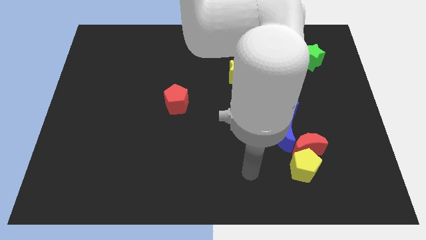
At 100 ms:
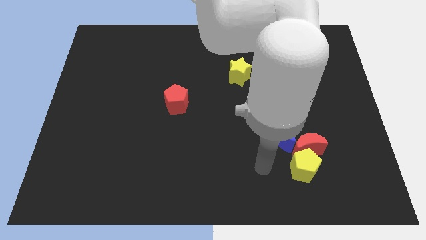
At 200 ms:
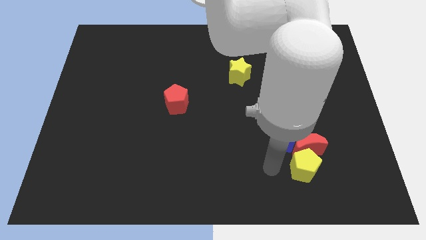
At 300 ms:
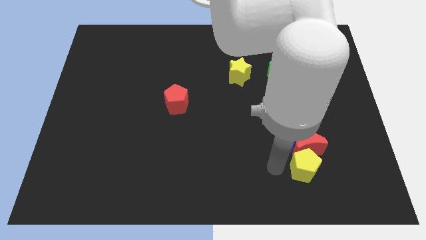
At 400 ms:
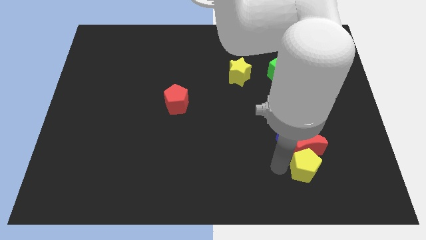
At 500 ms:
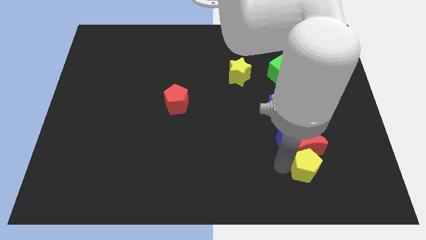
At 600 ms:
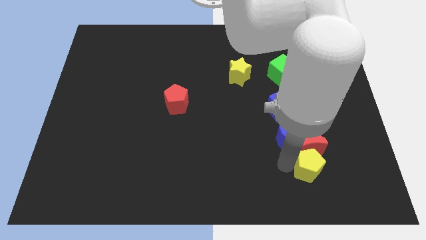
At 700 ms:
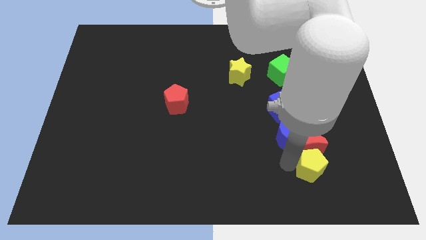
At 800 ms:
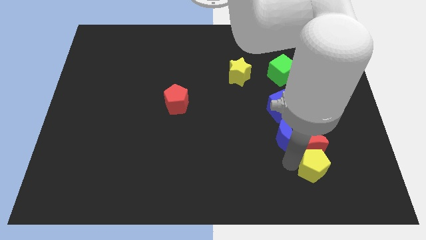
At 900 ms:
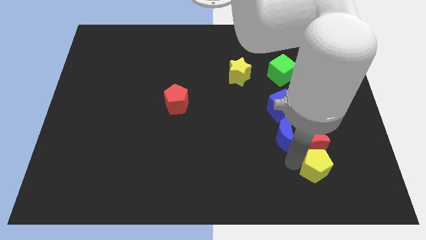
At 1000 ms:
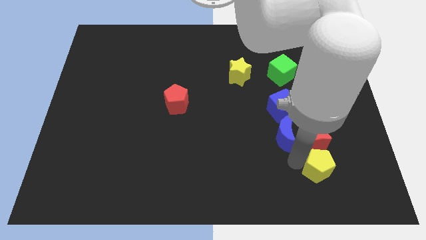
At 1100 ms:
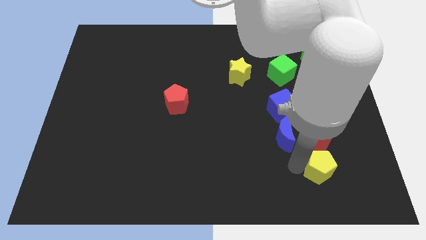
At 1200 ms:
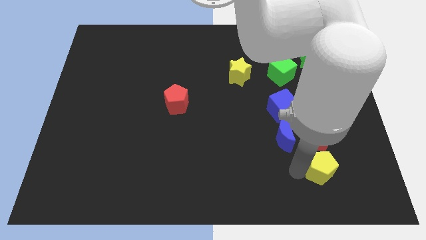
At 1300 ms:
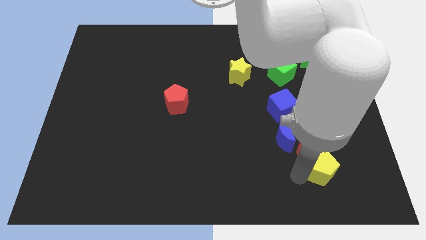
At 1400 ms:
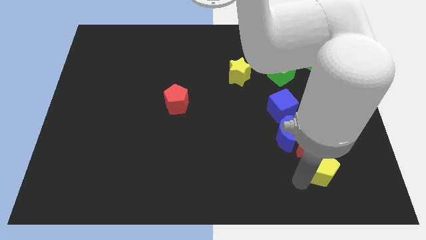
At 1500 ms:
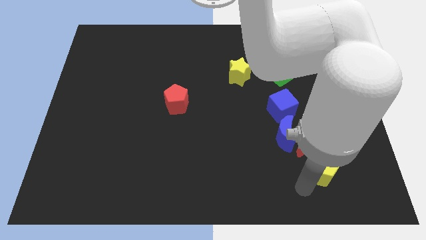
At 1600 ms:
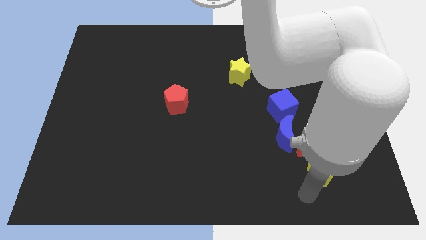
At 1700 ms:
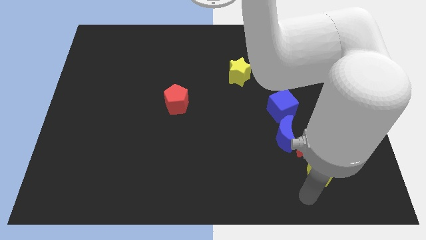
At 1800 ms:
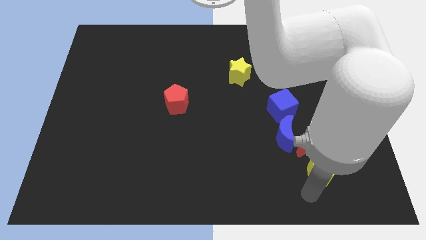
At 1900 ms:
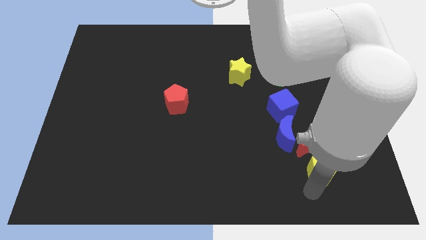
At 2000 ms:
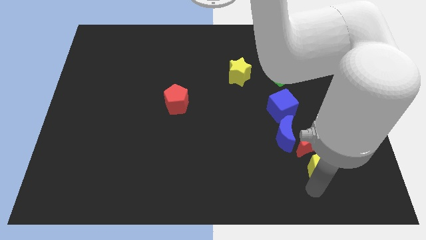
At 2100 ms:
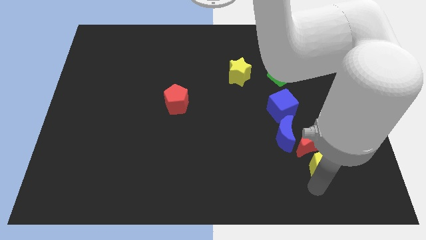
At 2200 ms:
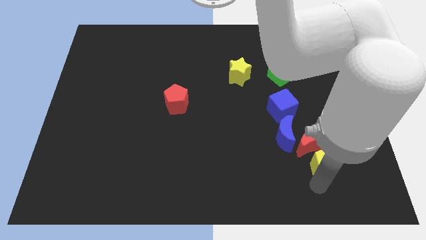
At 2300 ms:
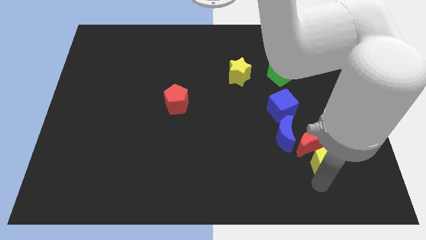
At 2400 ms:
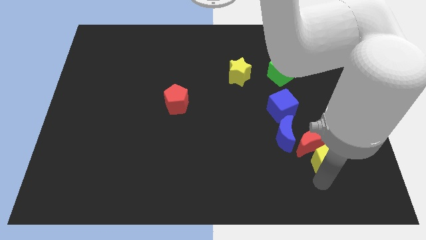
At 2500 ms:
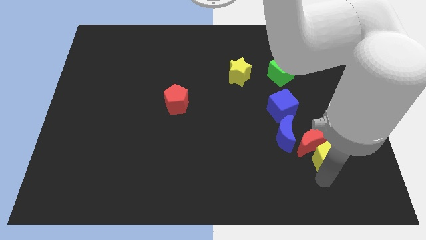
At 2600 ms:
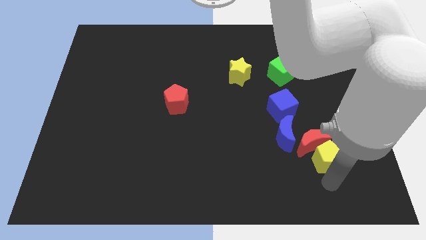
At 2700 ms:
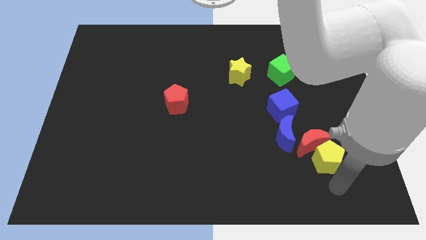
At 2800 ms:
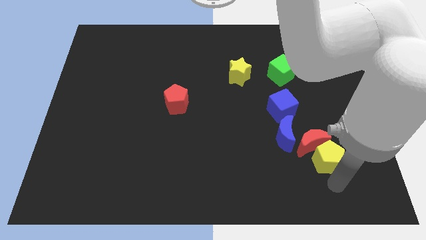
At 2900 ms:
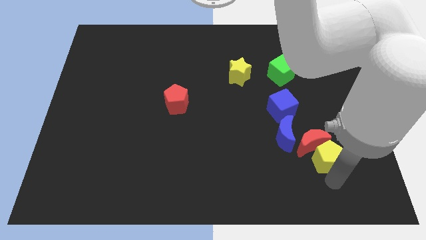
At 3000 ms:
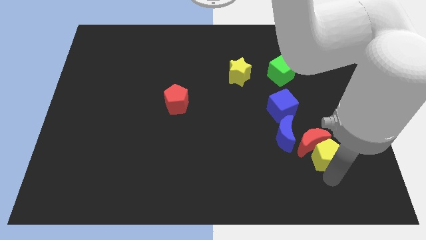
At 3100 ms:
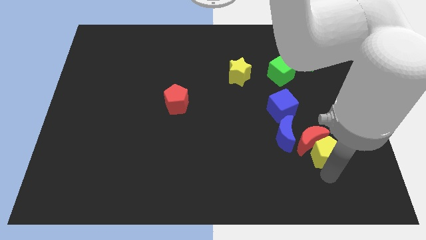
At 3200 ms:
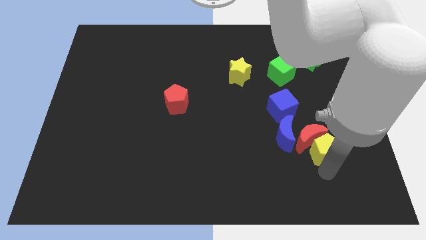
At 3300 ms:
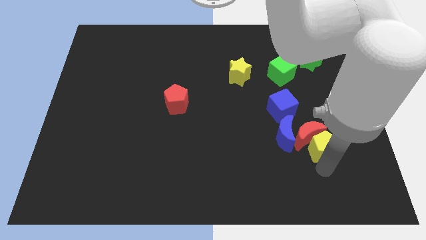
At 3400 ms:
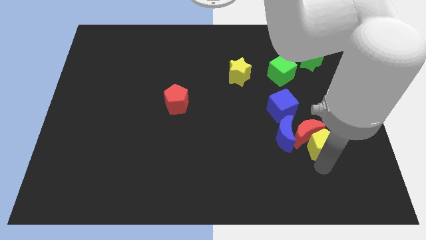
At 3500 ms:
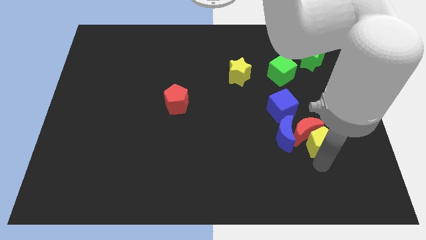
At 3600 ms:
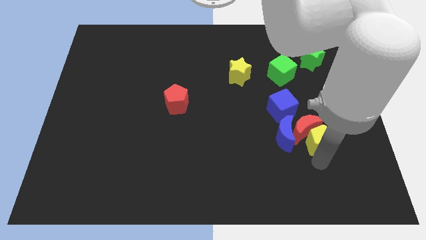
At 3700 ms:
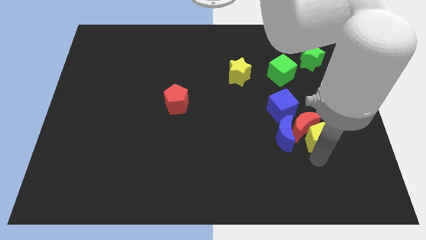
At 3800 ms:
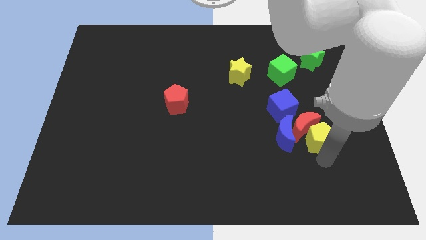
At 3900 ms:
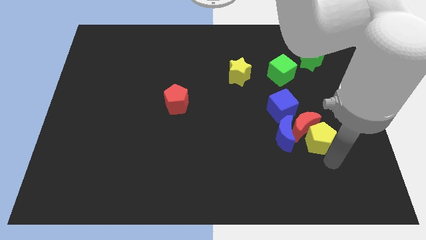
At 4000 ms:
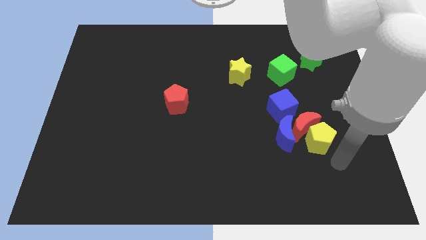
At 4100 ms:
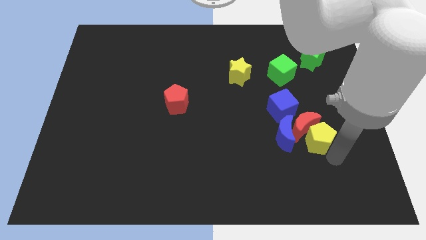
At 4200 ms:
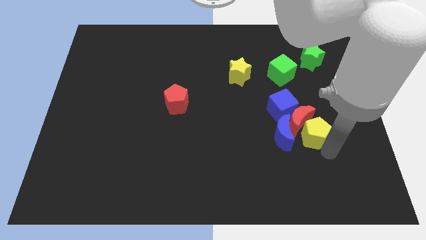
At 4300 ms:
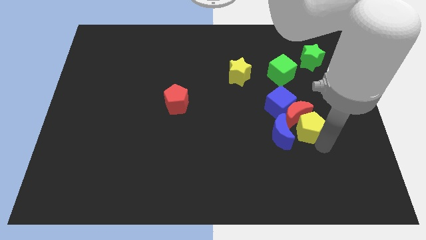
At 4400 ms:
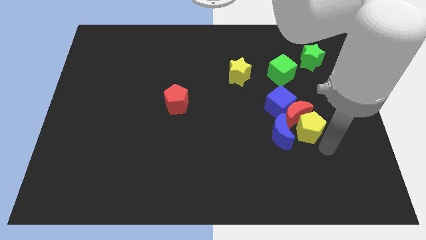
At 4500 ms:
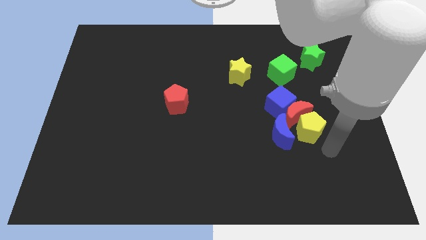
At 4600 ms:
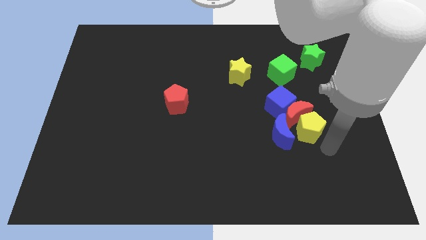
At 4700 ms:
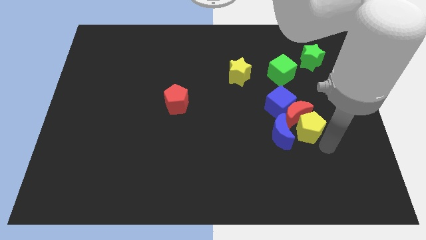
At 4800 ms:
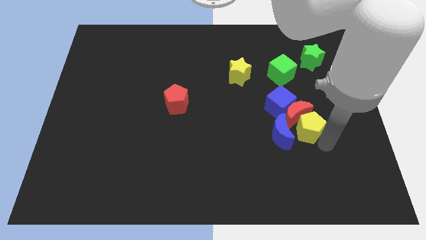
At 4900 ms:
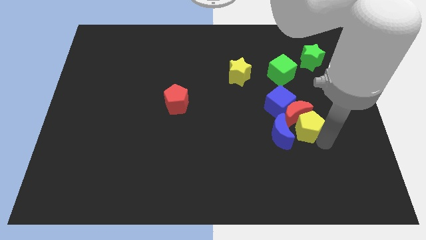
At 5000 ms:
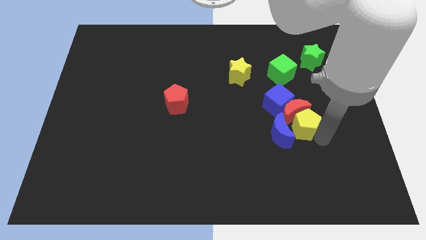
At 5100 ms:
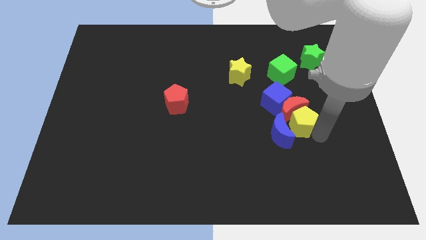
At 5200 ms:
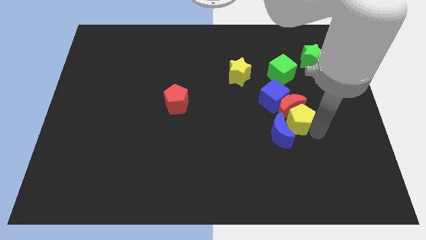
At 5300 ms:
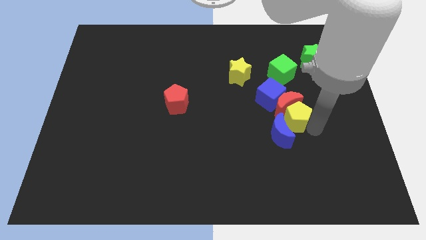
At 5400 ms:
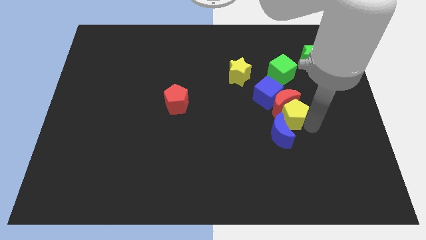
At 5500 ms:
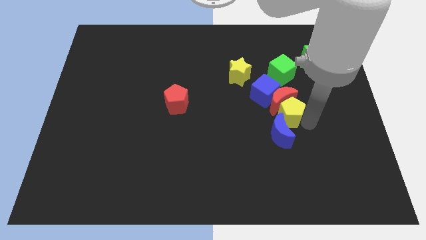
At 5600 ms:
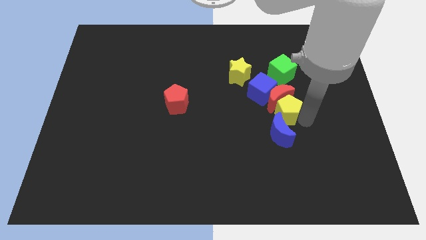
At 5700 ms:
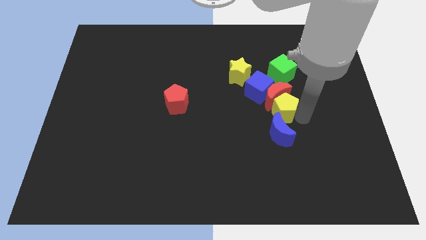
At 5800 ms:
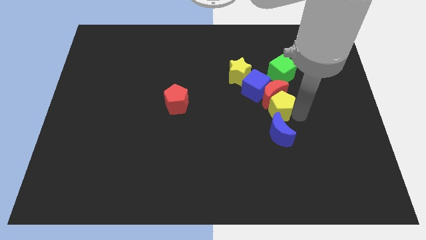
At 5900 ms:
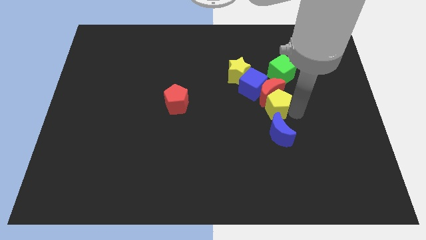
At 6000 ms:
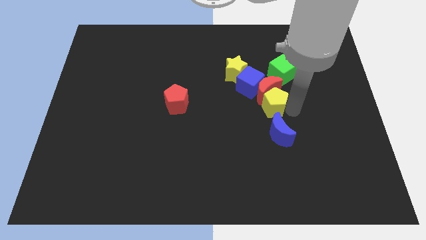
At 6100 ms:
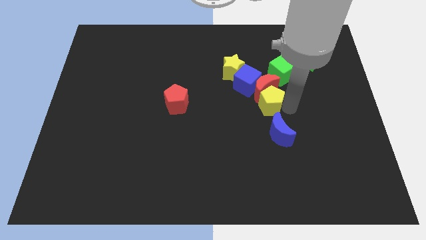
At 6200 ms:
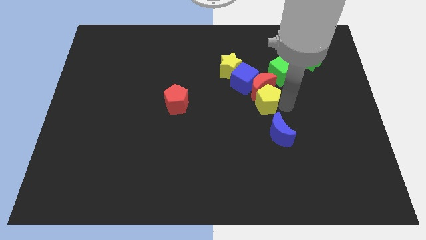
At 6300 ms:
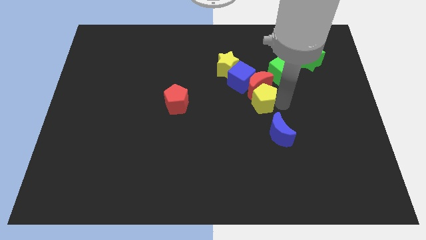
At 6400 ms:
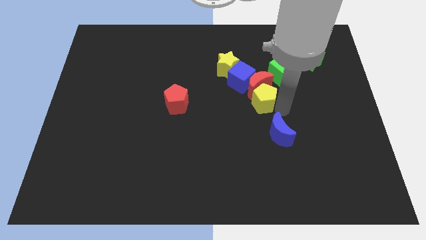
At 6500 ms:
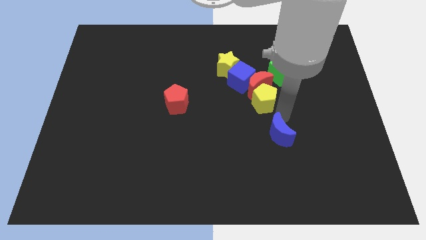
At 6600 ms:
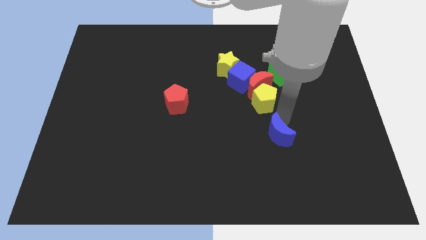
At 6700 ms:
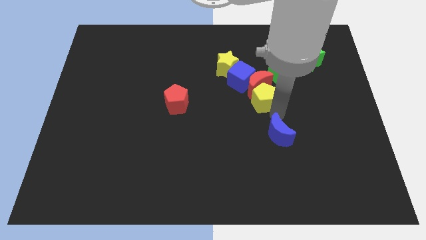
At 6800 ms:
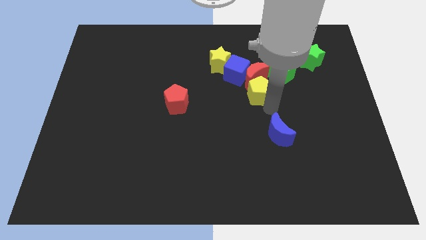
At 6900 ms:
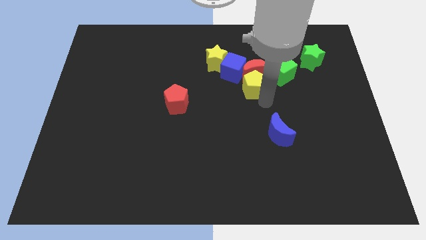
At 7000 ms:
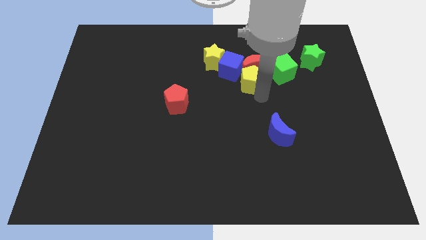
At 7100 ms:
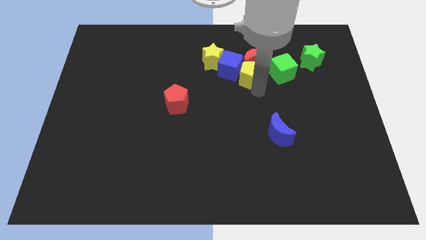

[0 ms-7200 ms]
push the yellow pentagon towards the blue cube

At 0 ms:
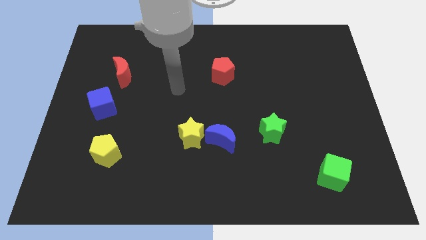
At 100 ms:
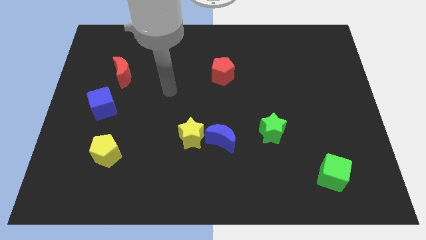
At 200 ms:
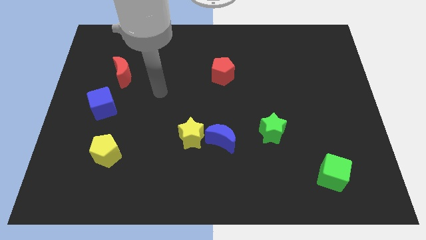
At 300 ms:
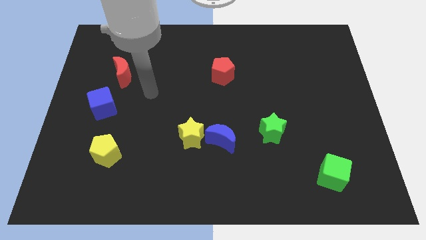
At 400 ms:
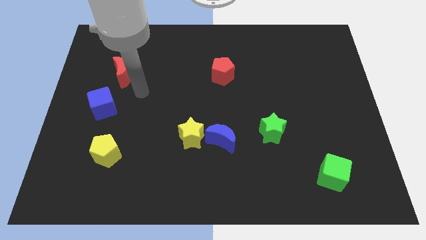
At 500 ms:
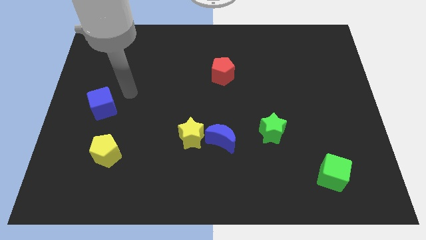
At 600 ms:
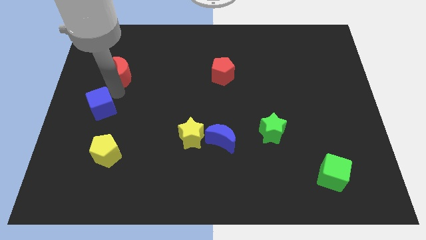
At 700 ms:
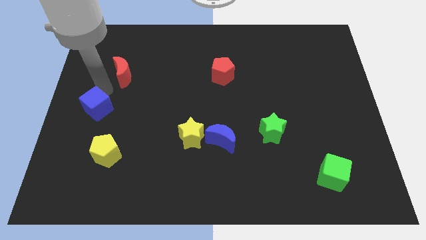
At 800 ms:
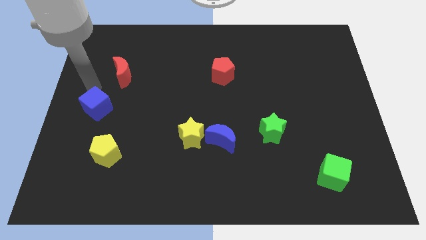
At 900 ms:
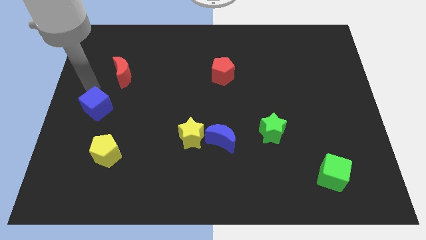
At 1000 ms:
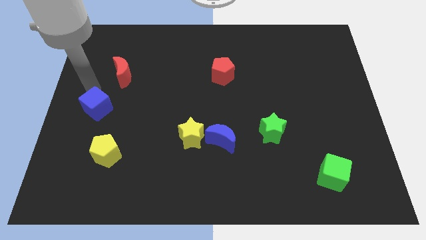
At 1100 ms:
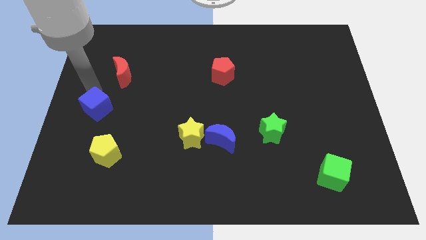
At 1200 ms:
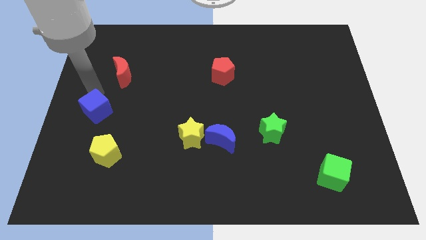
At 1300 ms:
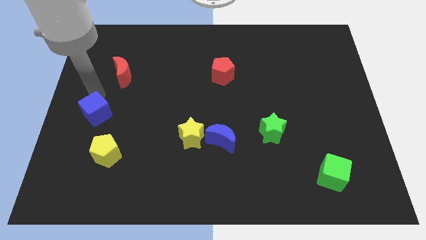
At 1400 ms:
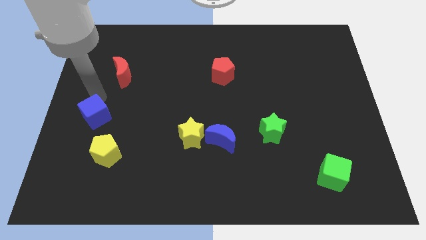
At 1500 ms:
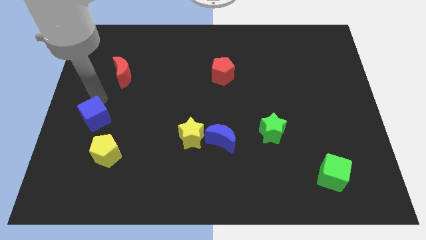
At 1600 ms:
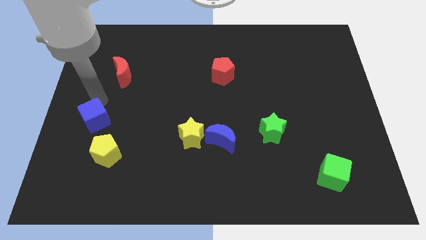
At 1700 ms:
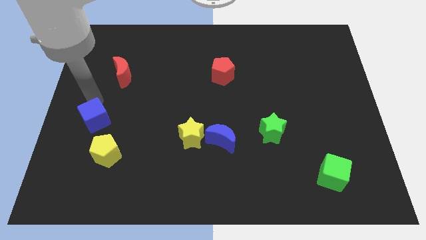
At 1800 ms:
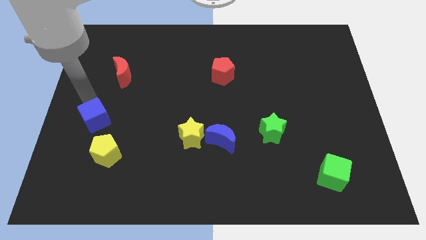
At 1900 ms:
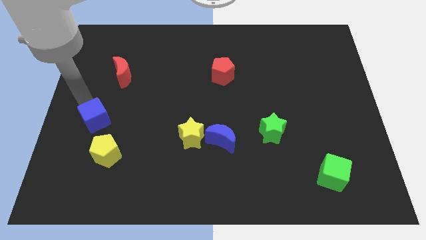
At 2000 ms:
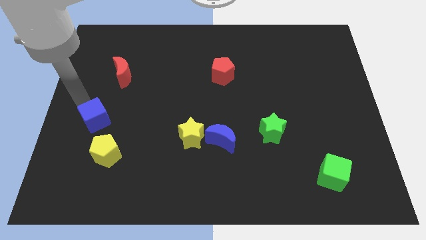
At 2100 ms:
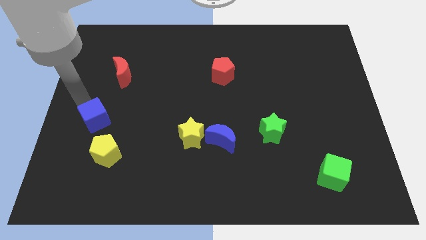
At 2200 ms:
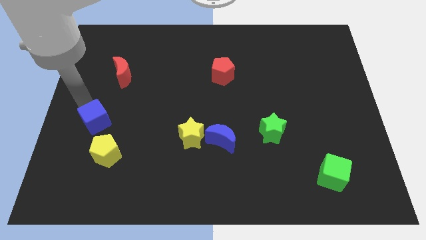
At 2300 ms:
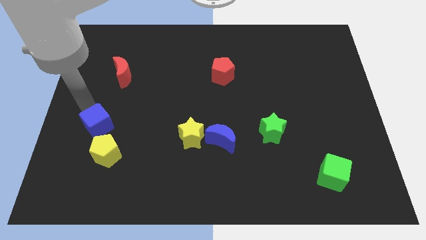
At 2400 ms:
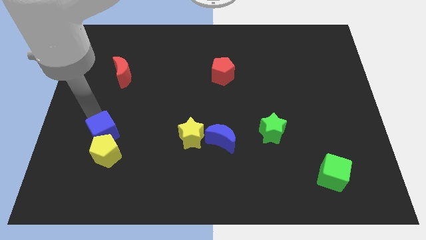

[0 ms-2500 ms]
put the blue cube close to the yellow pentagon
